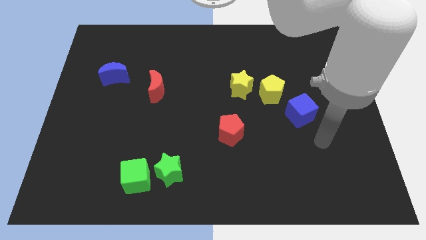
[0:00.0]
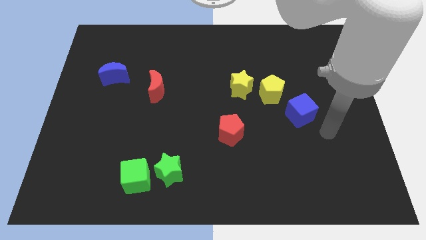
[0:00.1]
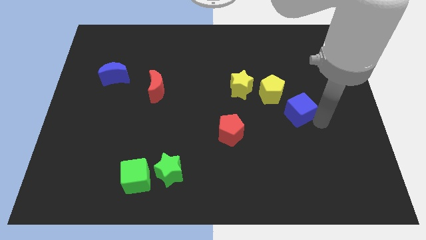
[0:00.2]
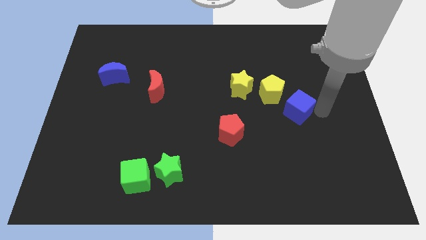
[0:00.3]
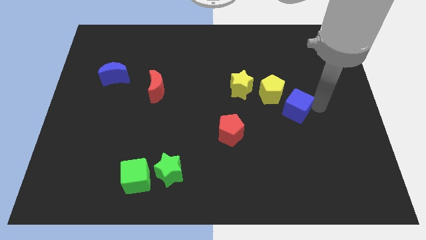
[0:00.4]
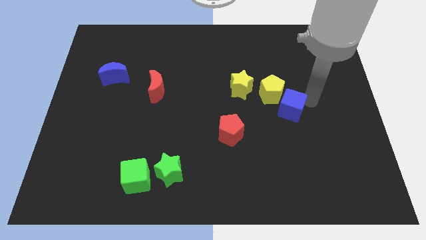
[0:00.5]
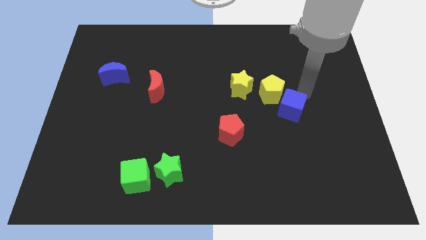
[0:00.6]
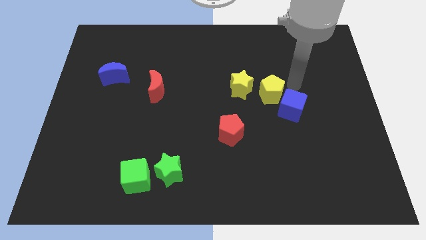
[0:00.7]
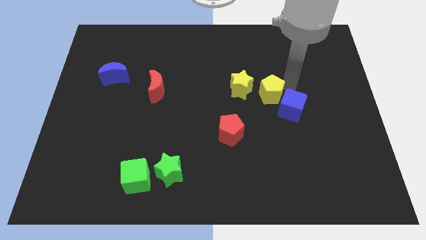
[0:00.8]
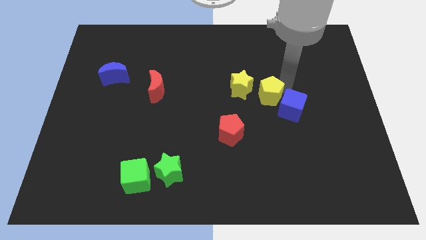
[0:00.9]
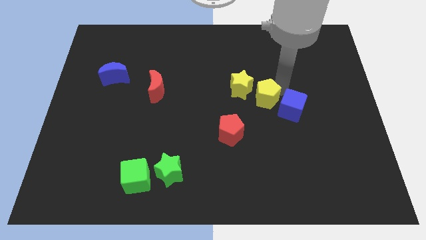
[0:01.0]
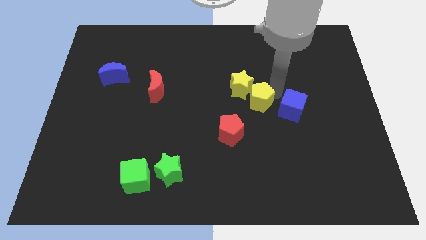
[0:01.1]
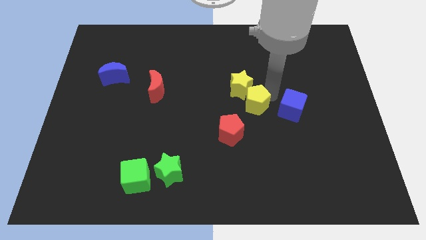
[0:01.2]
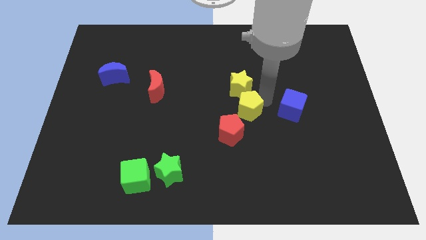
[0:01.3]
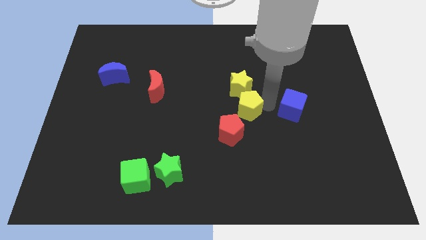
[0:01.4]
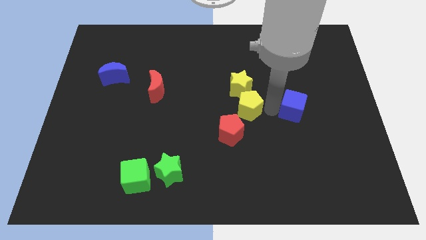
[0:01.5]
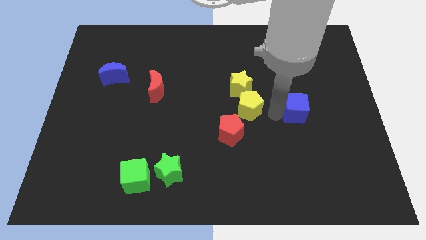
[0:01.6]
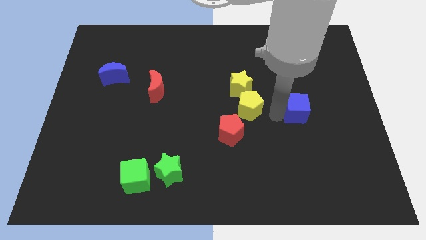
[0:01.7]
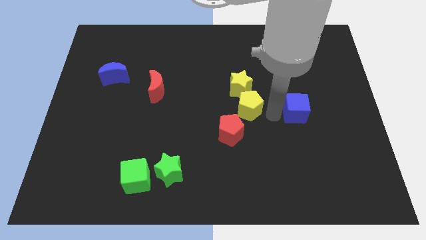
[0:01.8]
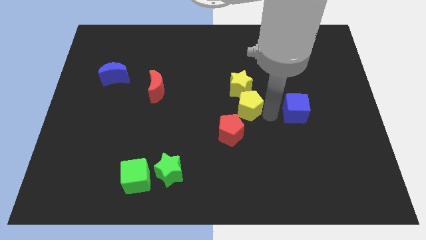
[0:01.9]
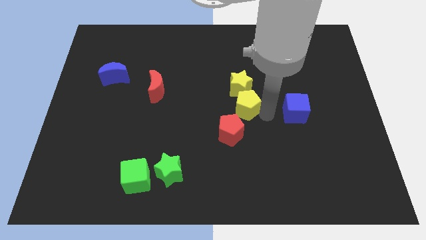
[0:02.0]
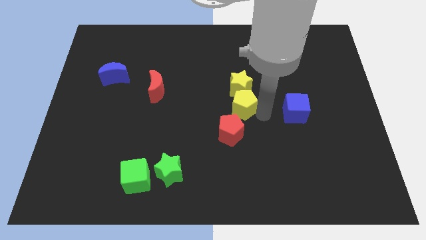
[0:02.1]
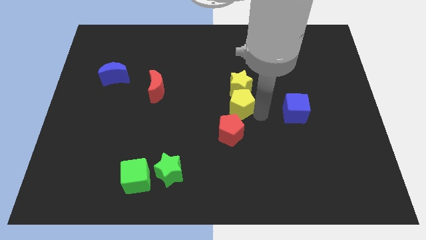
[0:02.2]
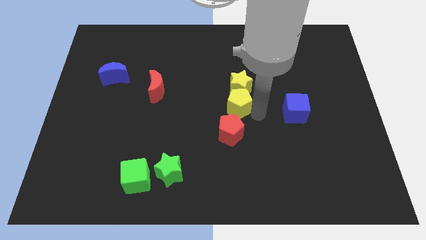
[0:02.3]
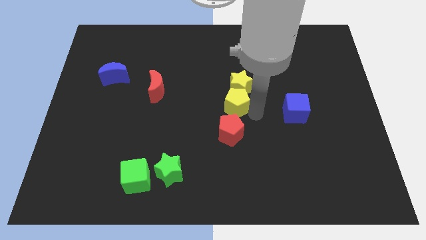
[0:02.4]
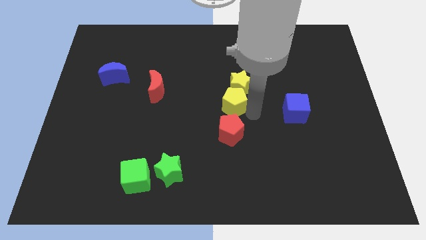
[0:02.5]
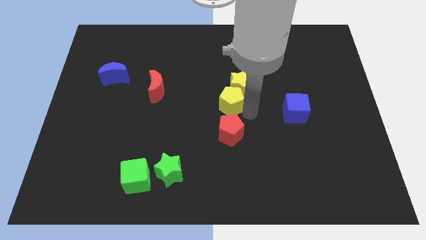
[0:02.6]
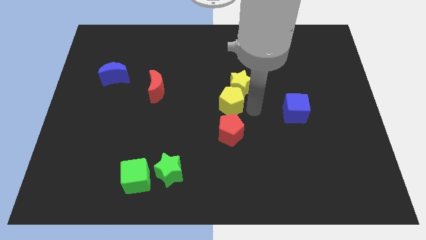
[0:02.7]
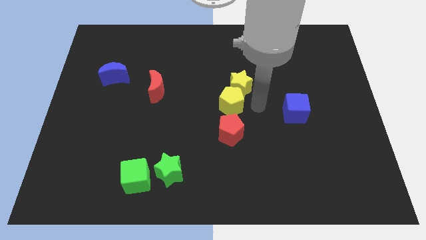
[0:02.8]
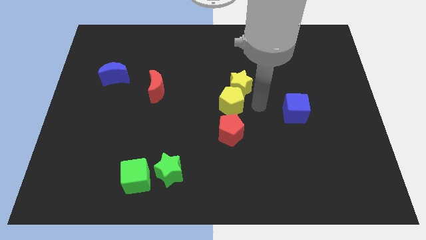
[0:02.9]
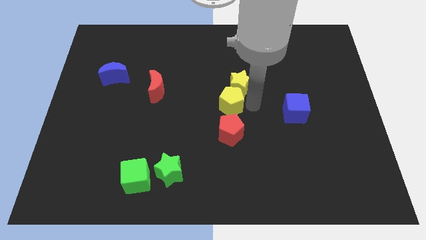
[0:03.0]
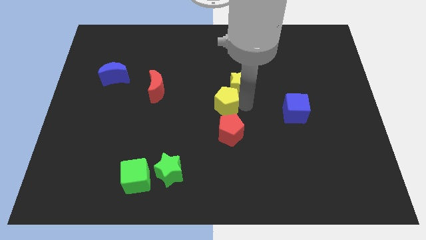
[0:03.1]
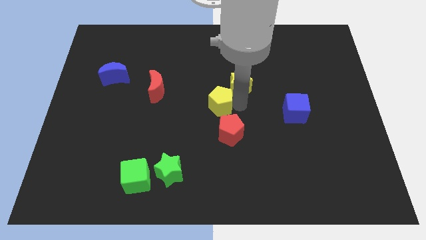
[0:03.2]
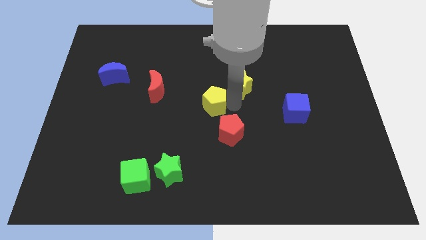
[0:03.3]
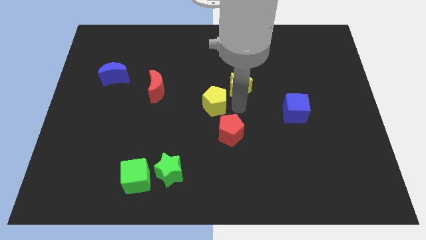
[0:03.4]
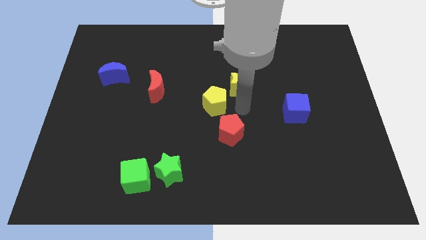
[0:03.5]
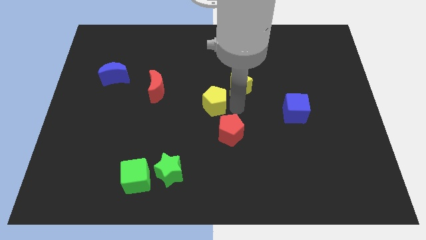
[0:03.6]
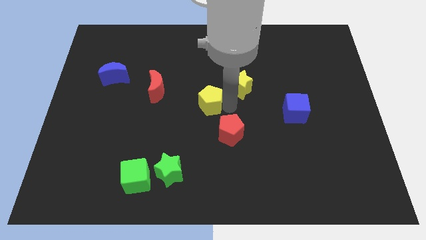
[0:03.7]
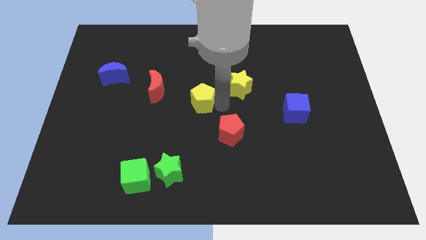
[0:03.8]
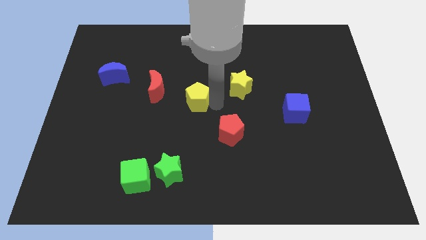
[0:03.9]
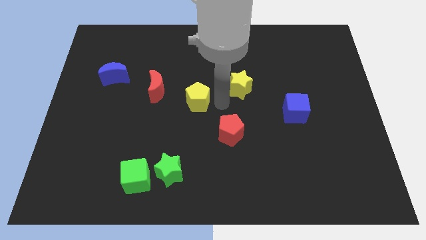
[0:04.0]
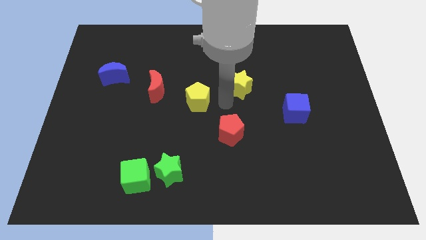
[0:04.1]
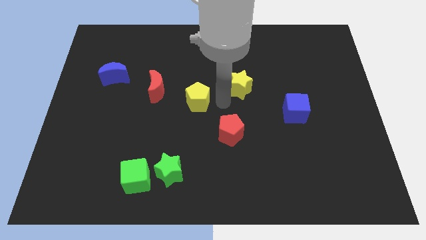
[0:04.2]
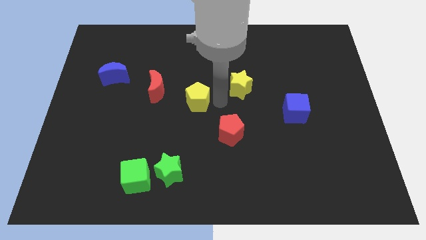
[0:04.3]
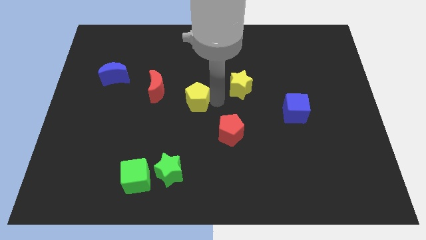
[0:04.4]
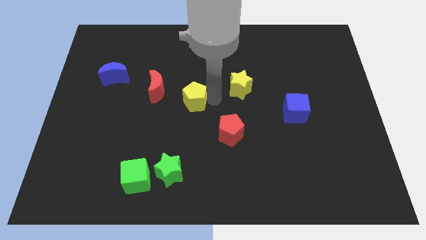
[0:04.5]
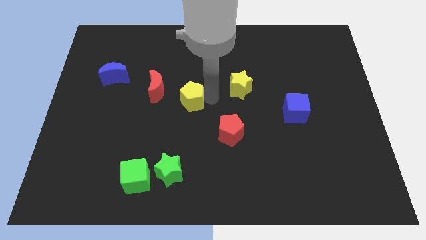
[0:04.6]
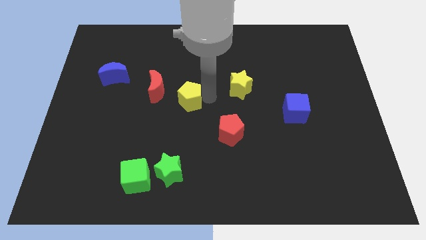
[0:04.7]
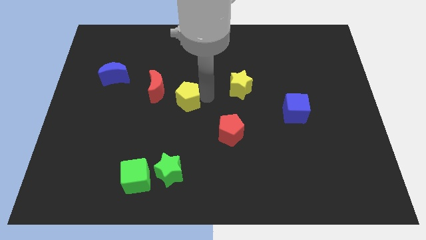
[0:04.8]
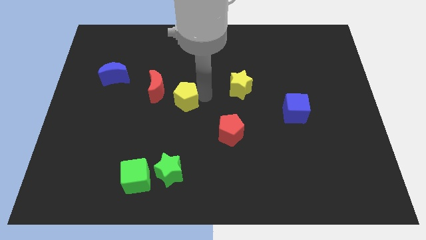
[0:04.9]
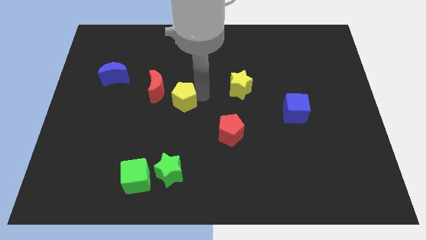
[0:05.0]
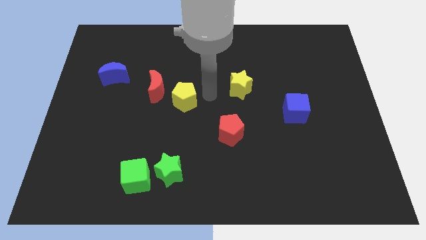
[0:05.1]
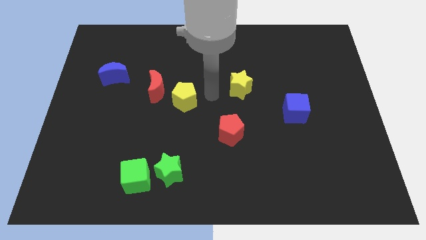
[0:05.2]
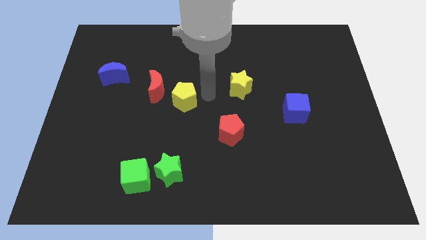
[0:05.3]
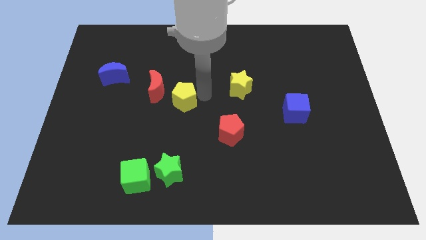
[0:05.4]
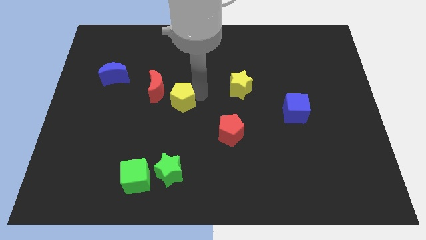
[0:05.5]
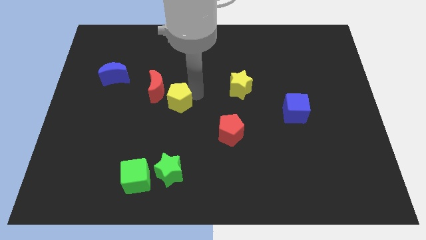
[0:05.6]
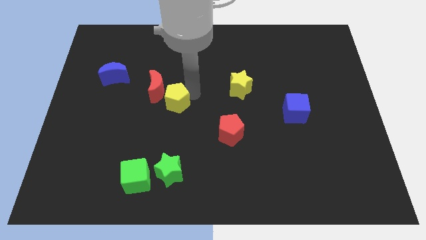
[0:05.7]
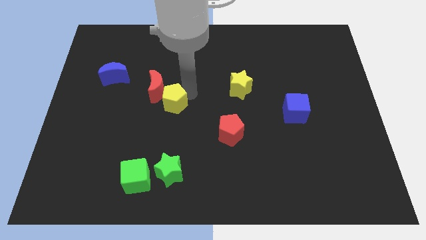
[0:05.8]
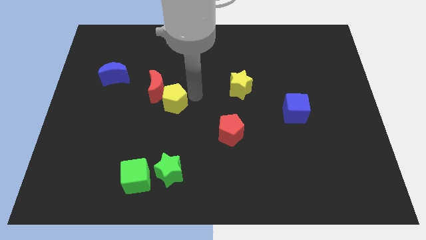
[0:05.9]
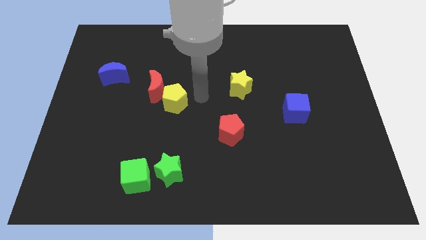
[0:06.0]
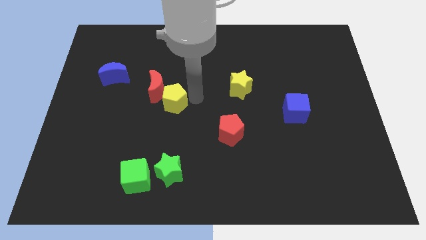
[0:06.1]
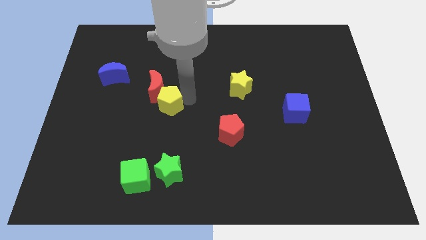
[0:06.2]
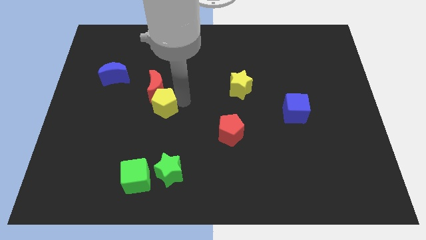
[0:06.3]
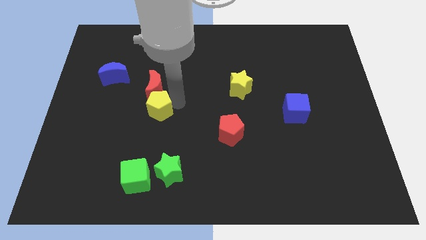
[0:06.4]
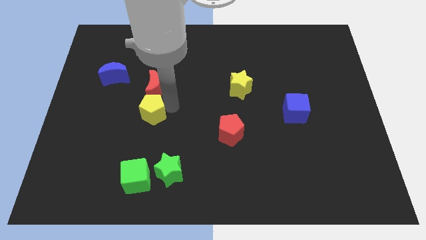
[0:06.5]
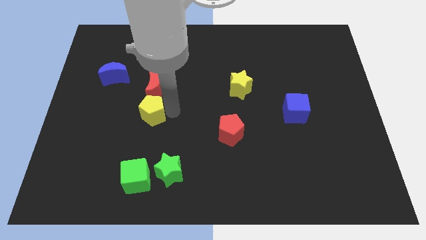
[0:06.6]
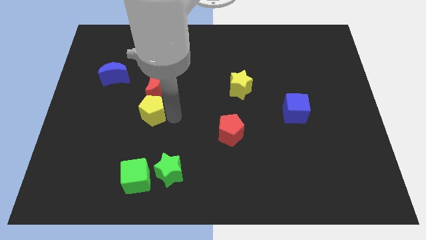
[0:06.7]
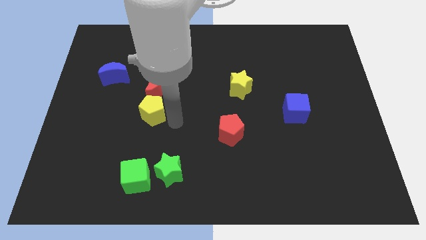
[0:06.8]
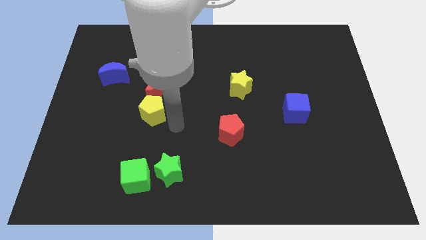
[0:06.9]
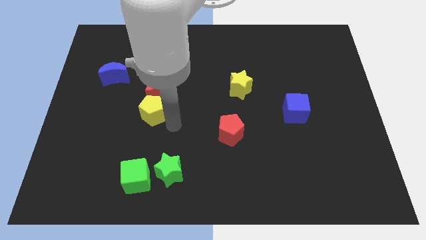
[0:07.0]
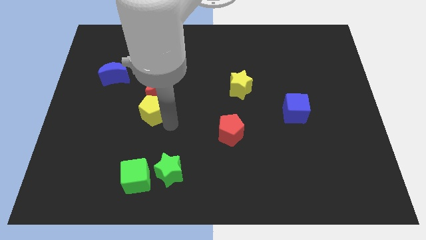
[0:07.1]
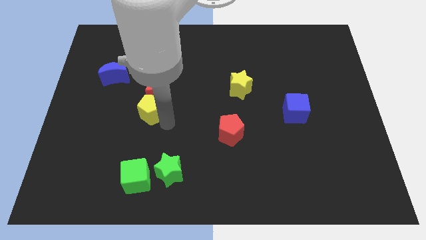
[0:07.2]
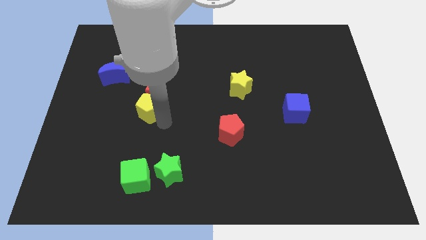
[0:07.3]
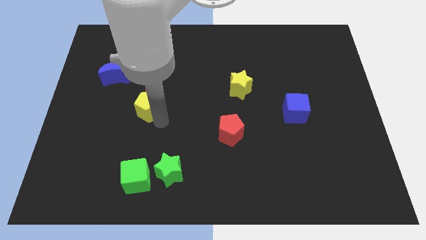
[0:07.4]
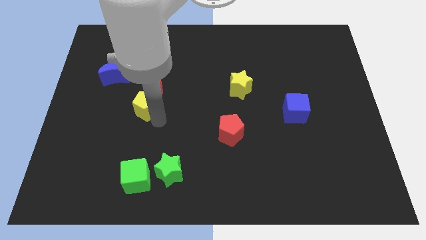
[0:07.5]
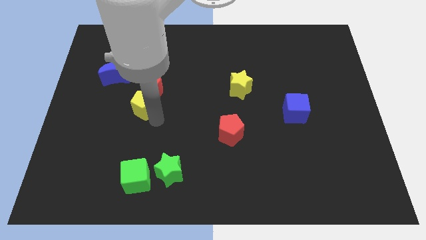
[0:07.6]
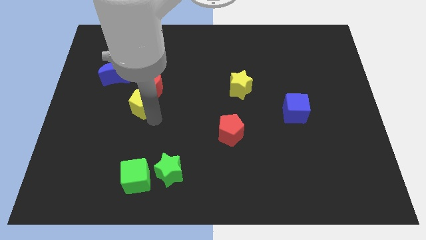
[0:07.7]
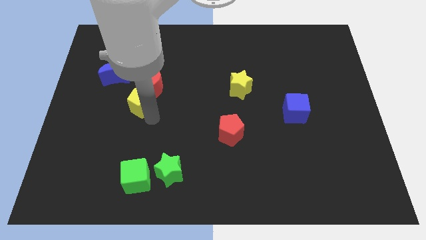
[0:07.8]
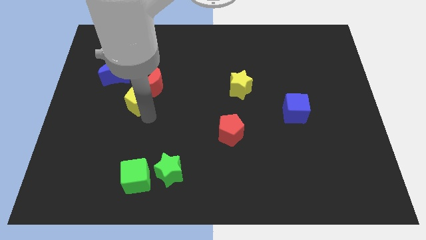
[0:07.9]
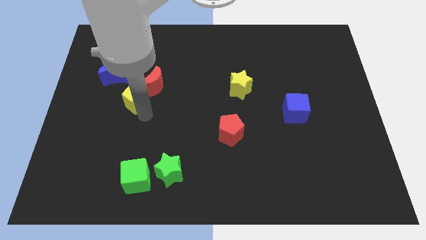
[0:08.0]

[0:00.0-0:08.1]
push the yellow pentagon just left of the red moon
